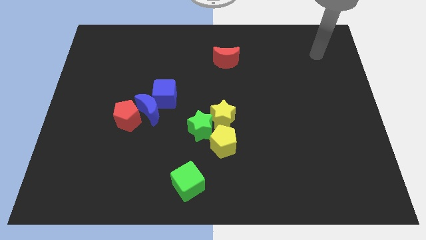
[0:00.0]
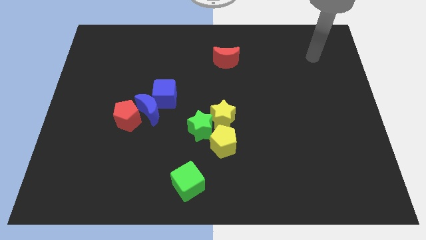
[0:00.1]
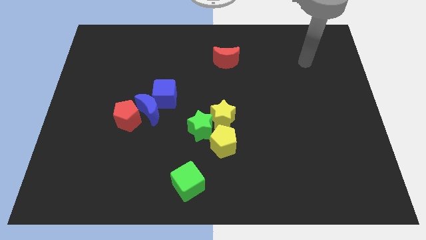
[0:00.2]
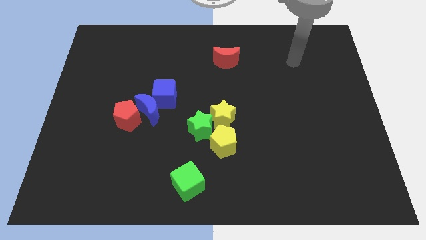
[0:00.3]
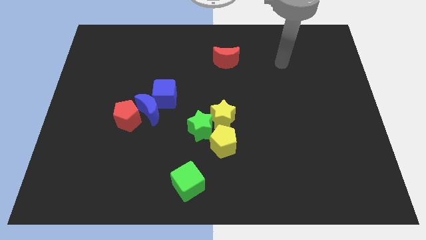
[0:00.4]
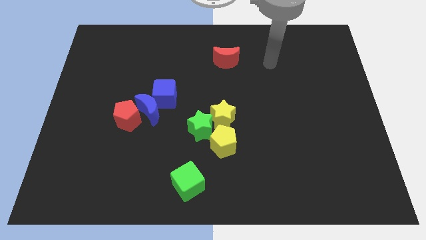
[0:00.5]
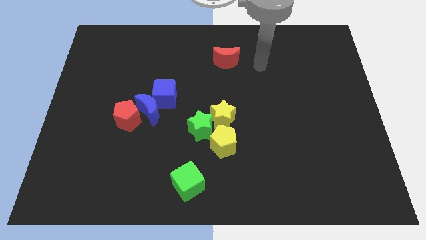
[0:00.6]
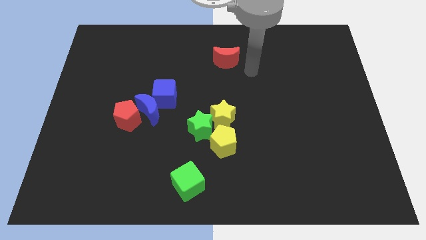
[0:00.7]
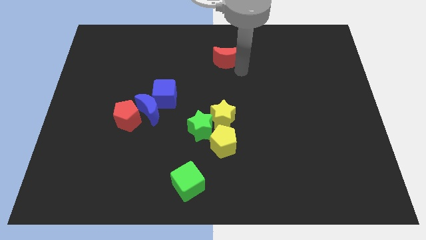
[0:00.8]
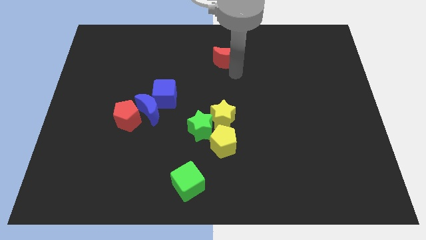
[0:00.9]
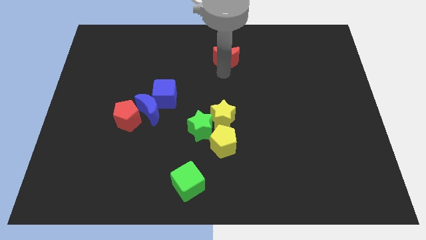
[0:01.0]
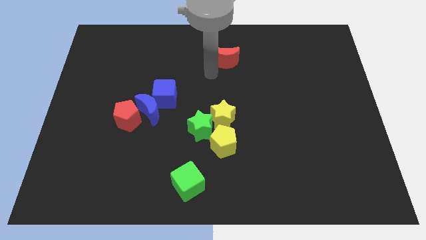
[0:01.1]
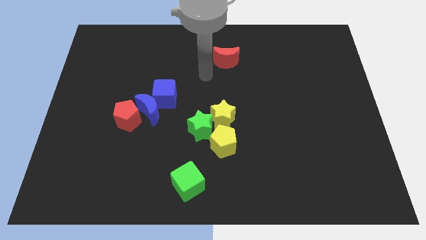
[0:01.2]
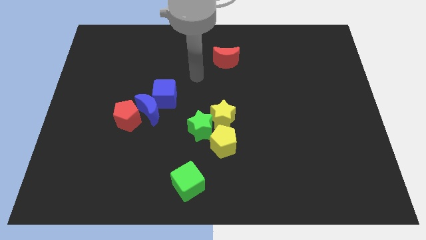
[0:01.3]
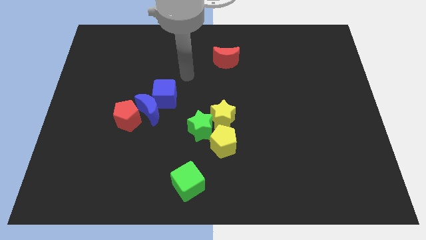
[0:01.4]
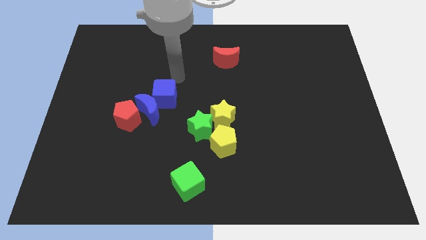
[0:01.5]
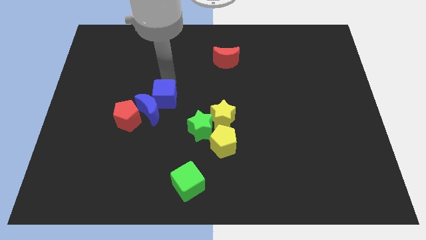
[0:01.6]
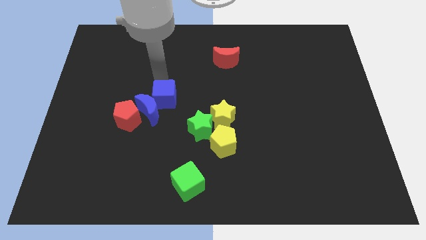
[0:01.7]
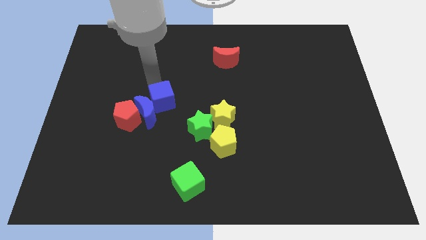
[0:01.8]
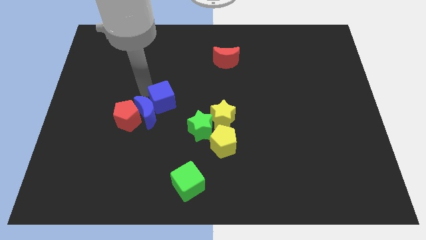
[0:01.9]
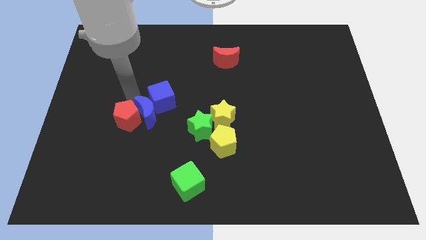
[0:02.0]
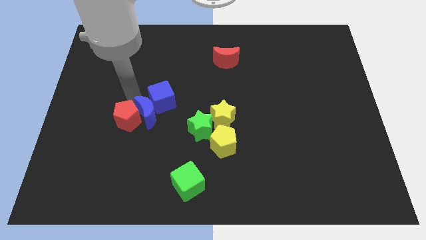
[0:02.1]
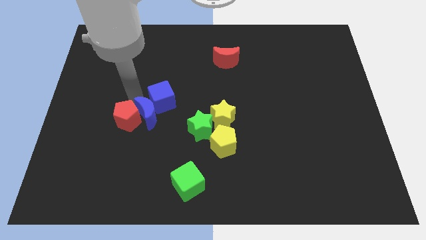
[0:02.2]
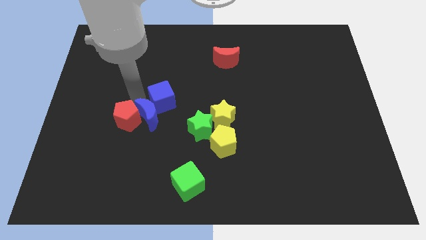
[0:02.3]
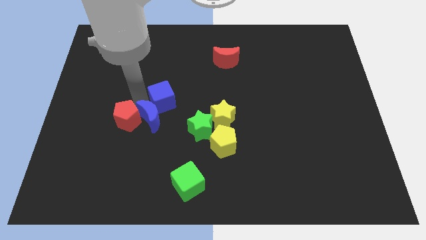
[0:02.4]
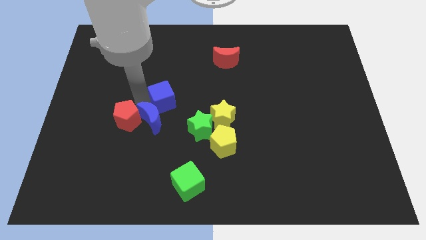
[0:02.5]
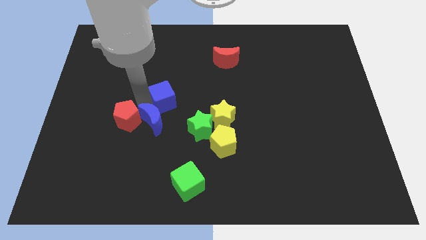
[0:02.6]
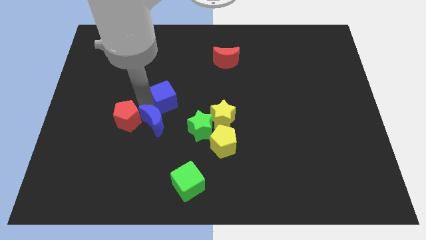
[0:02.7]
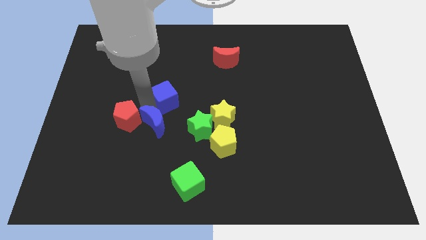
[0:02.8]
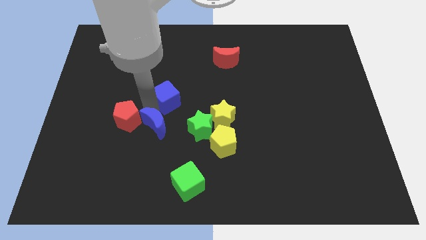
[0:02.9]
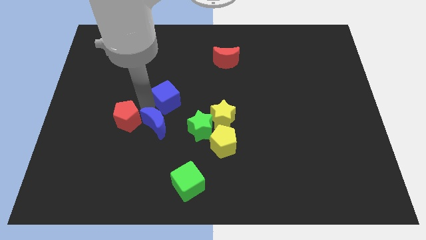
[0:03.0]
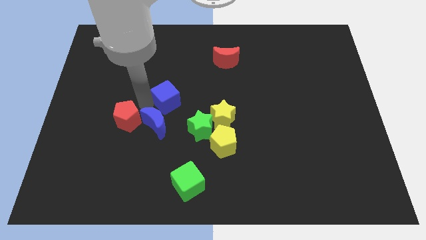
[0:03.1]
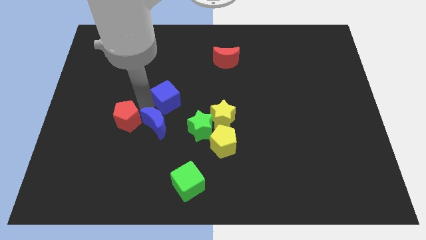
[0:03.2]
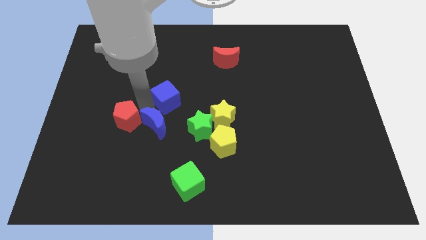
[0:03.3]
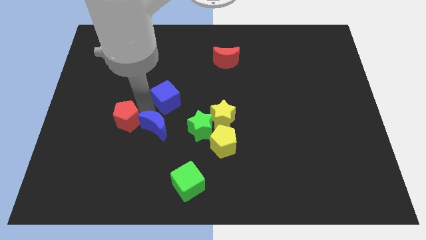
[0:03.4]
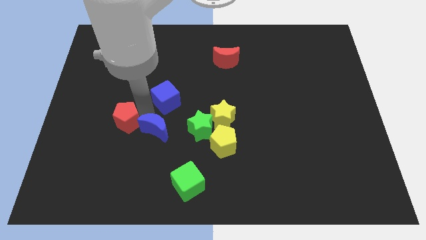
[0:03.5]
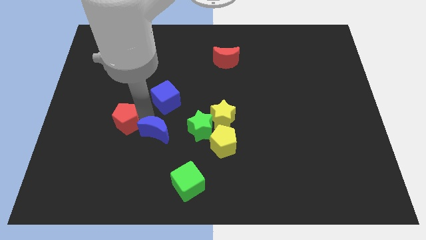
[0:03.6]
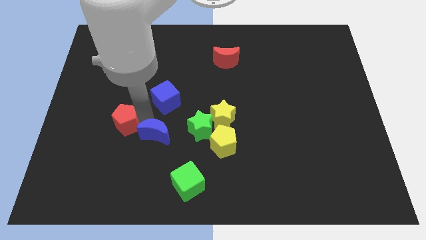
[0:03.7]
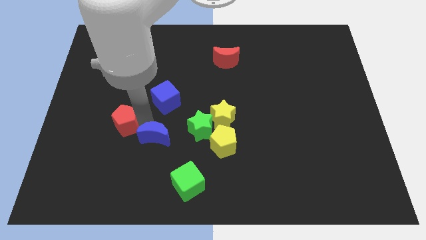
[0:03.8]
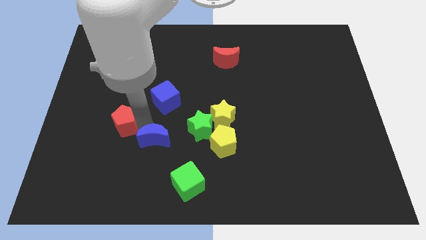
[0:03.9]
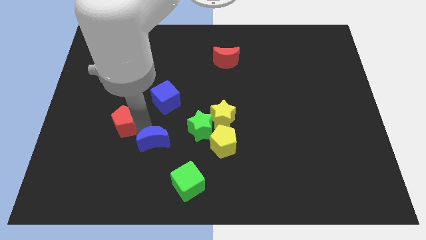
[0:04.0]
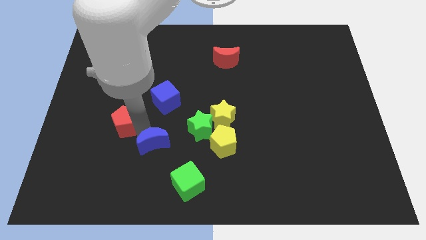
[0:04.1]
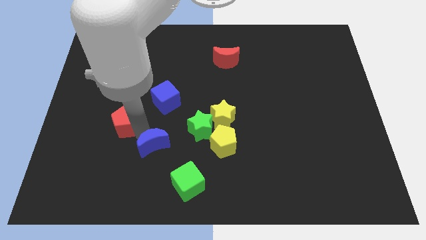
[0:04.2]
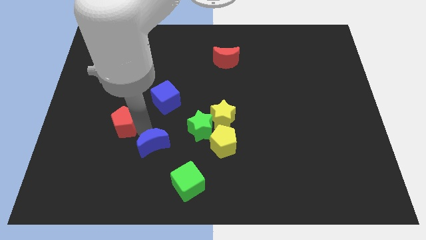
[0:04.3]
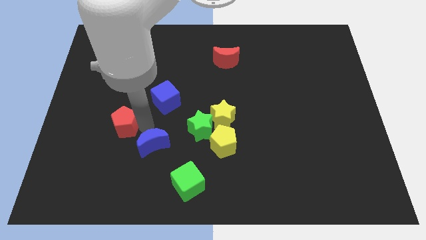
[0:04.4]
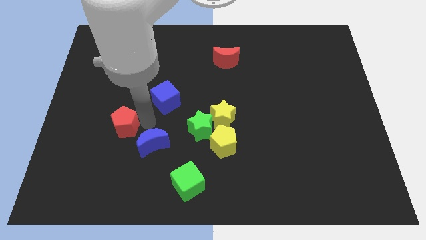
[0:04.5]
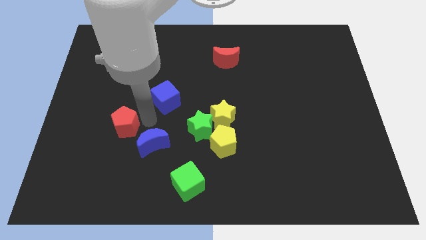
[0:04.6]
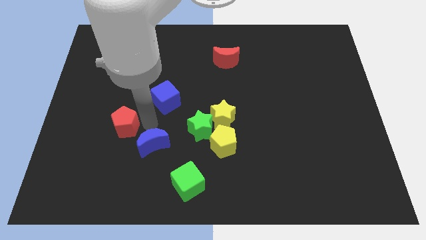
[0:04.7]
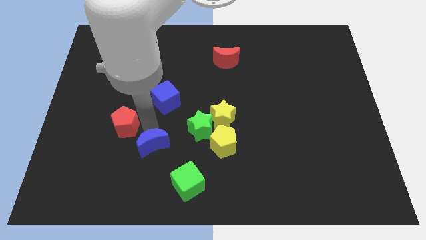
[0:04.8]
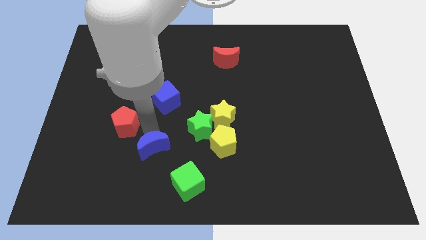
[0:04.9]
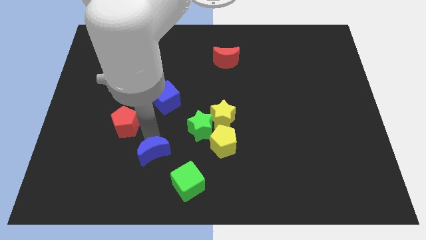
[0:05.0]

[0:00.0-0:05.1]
move the blue moon away from the red pentagon and blue cube

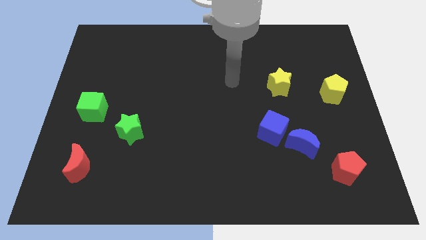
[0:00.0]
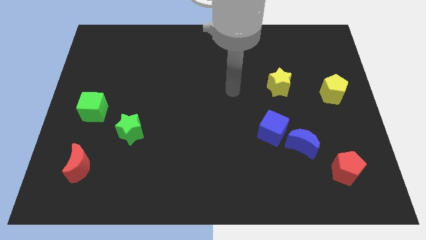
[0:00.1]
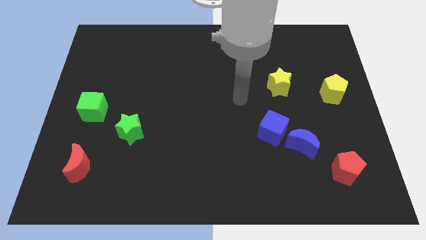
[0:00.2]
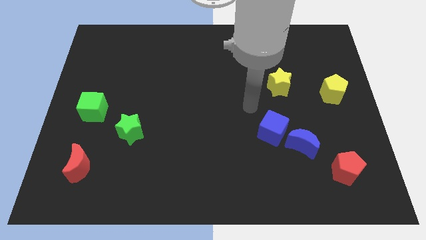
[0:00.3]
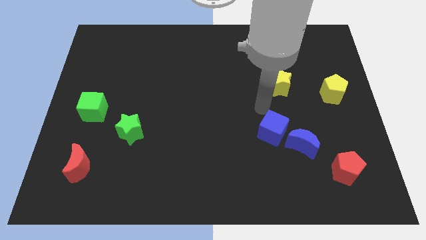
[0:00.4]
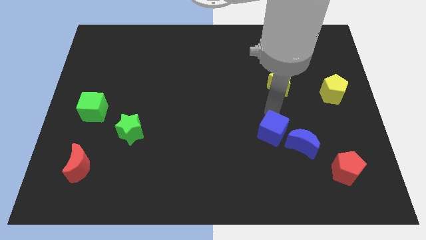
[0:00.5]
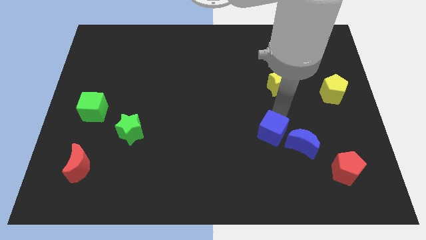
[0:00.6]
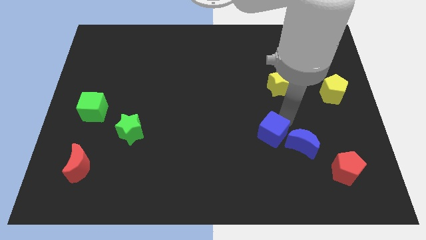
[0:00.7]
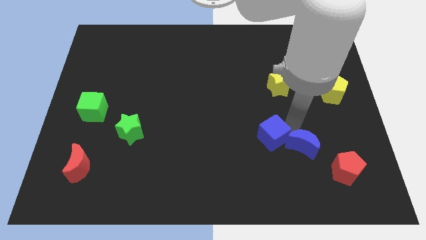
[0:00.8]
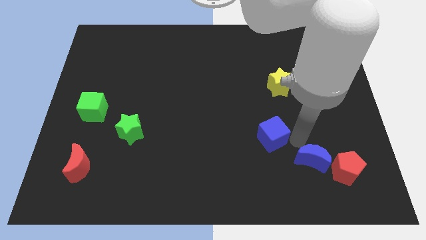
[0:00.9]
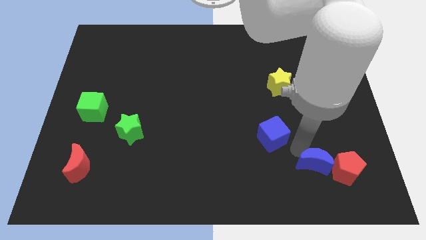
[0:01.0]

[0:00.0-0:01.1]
pull the blue cube apart from the blue moon

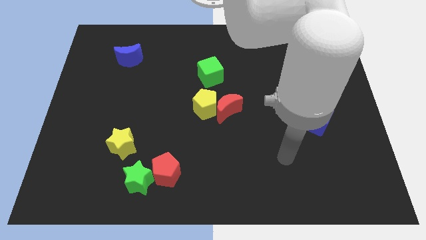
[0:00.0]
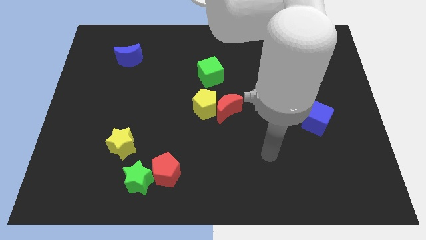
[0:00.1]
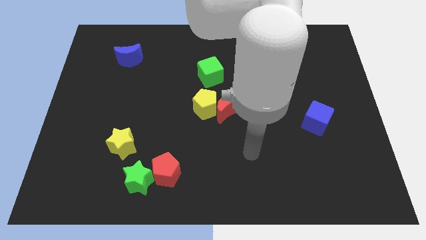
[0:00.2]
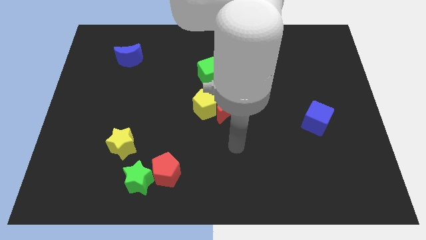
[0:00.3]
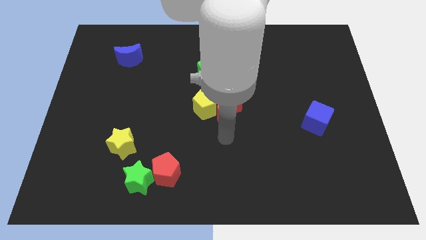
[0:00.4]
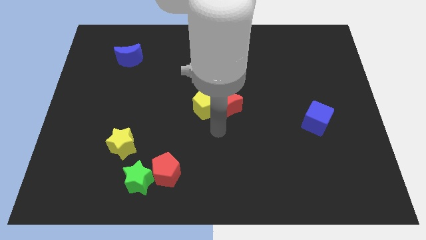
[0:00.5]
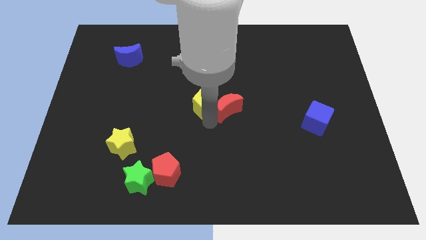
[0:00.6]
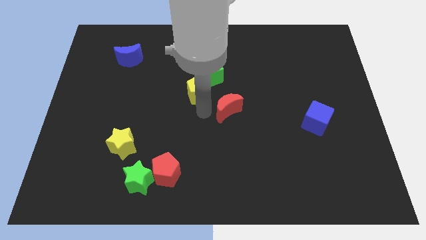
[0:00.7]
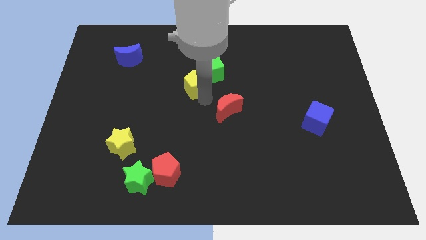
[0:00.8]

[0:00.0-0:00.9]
separate the red moon from the yellow pentagon

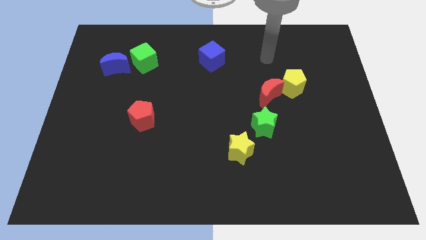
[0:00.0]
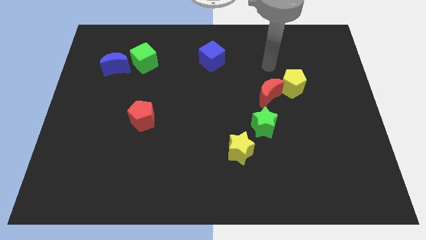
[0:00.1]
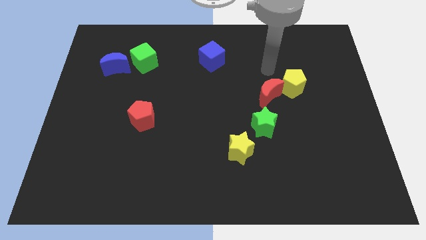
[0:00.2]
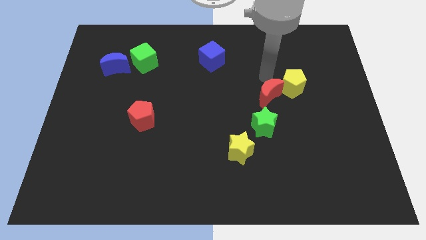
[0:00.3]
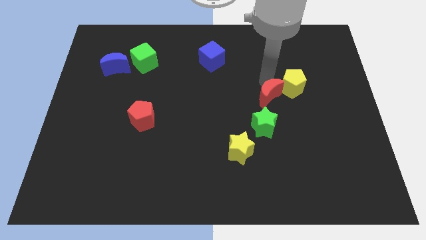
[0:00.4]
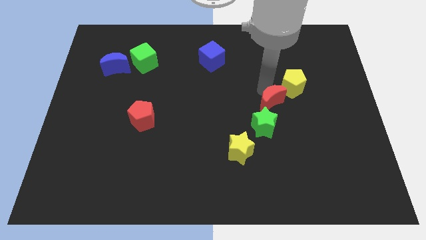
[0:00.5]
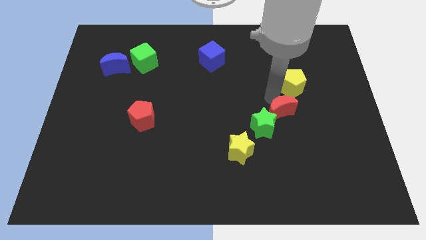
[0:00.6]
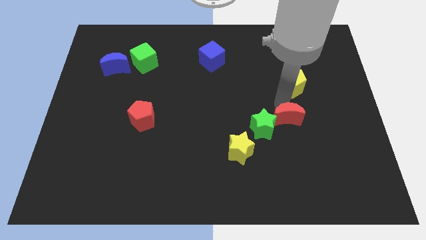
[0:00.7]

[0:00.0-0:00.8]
pull the yellow pentagon apart from the red moon

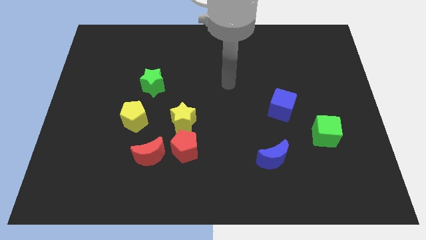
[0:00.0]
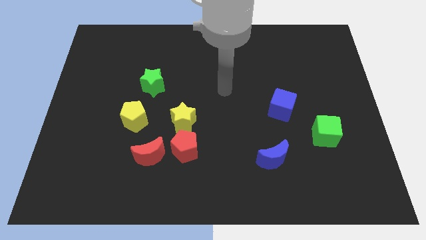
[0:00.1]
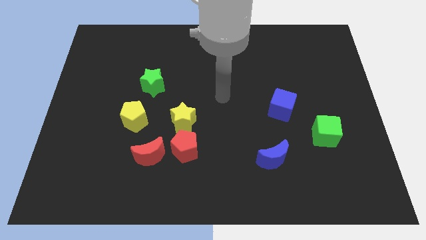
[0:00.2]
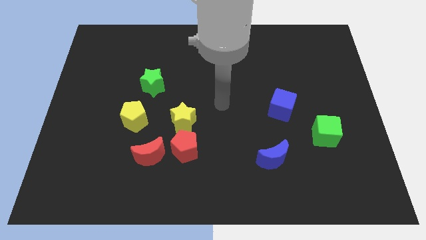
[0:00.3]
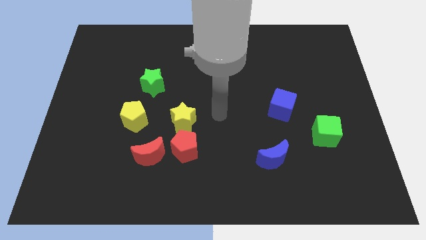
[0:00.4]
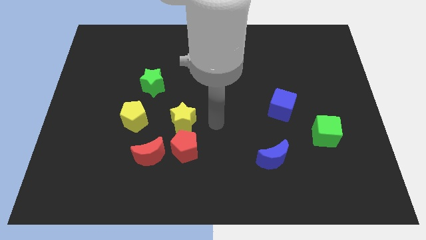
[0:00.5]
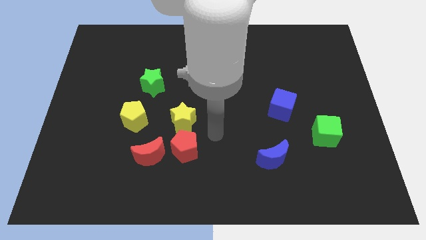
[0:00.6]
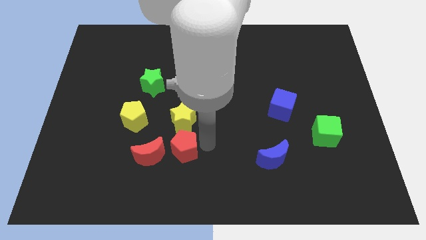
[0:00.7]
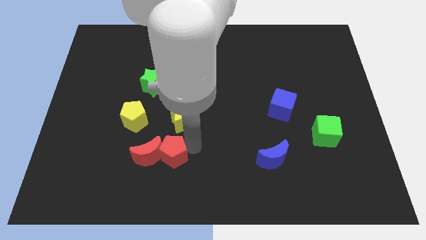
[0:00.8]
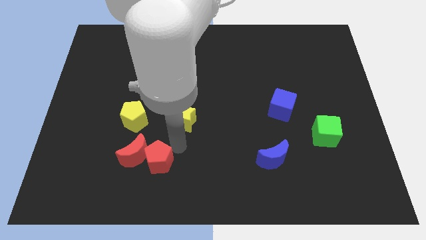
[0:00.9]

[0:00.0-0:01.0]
separate the yellow star from the red pentagon

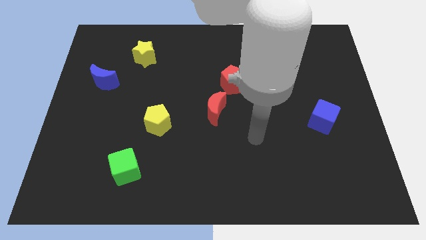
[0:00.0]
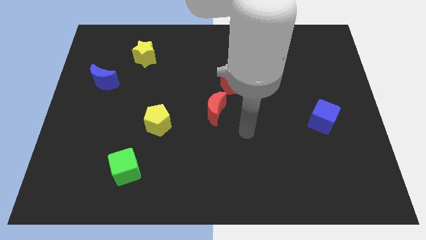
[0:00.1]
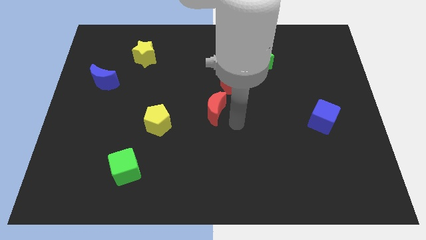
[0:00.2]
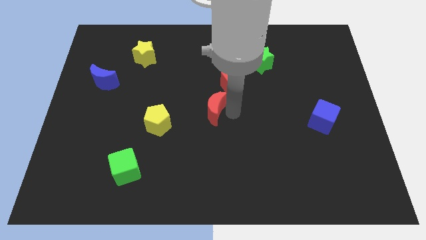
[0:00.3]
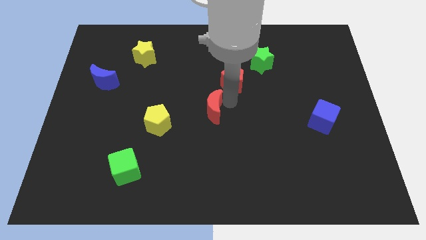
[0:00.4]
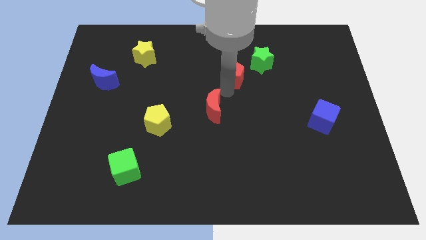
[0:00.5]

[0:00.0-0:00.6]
pull the red moon apart from the red pentagon
